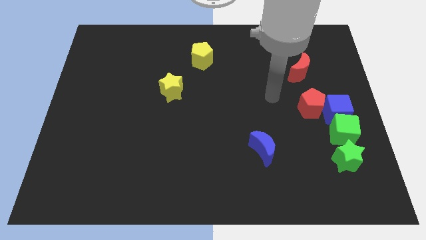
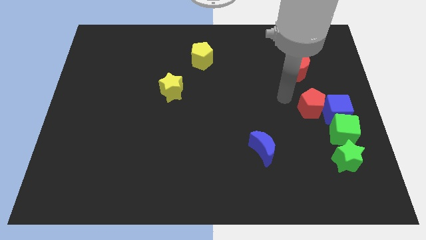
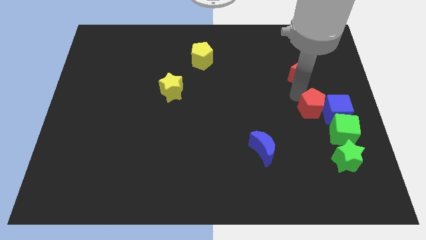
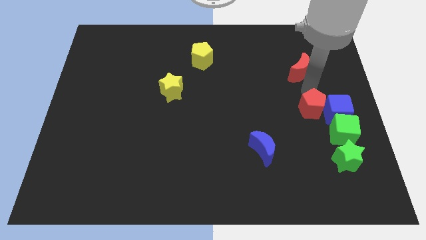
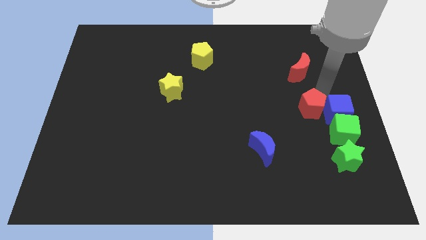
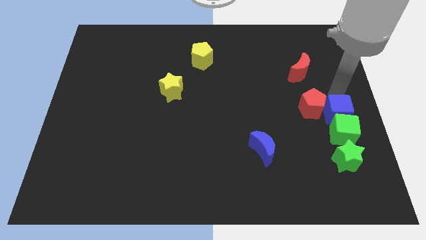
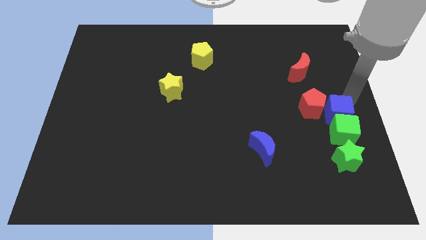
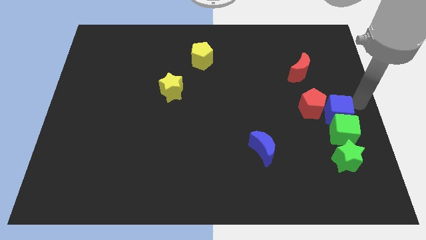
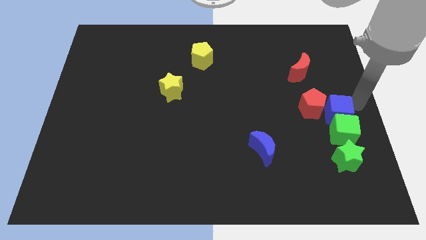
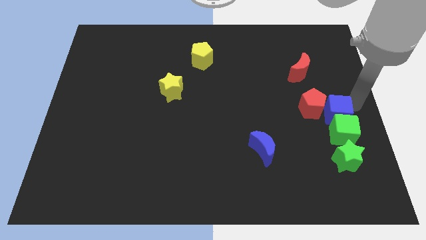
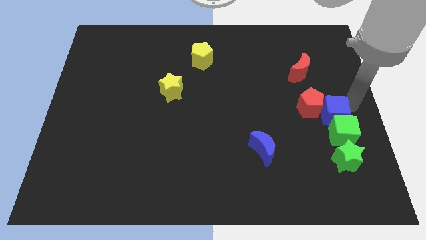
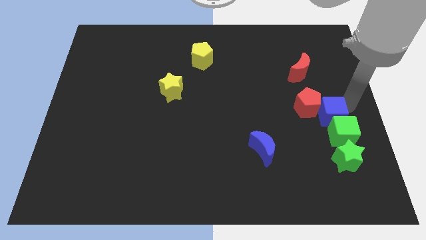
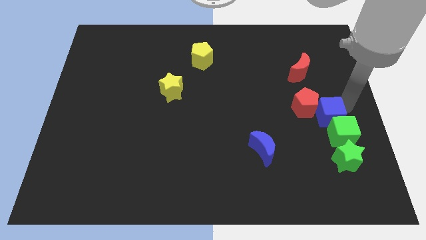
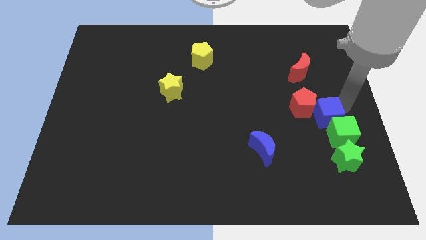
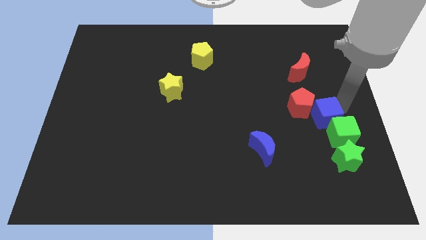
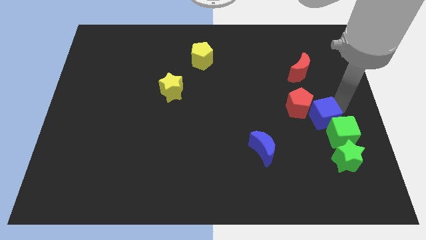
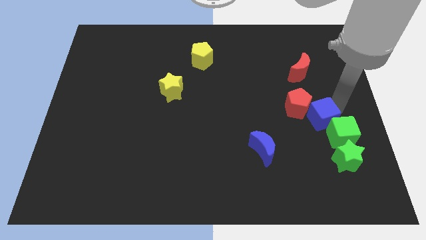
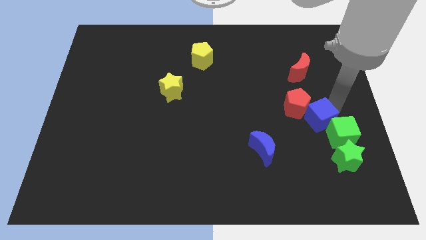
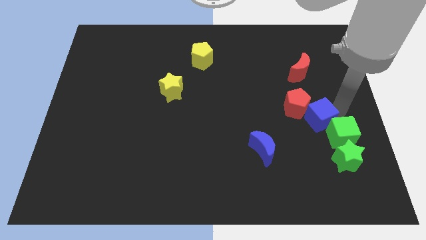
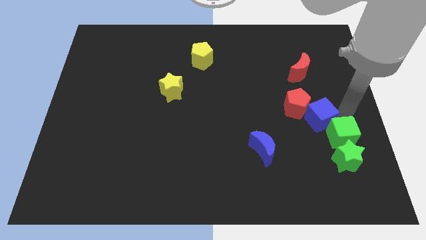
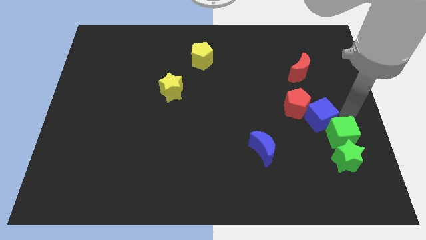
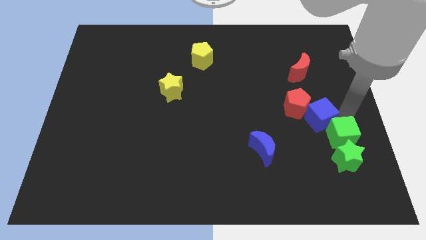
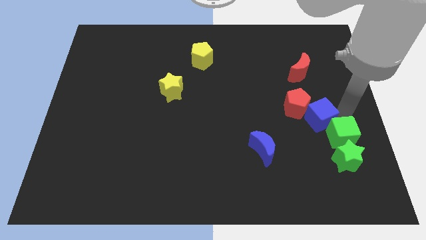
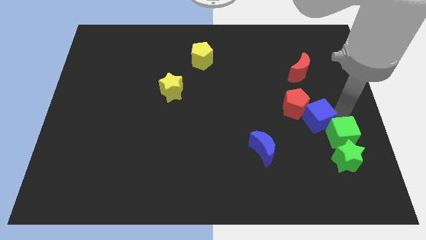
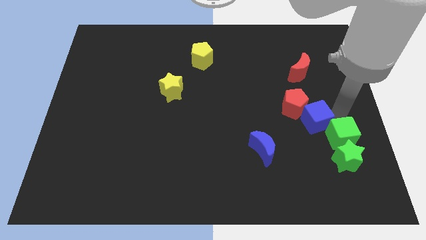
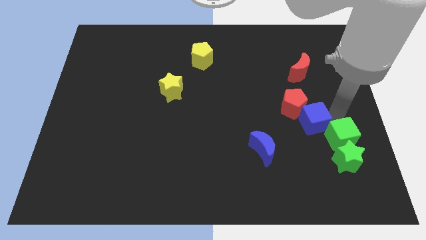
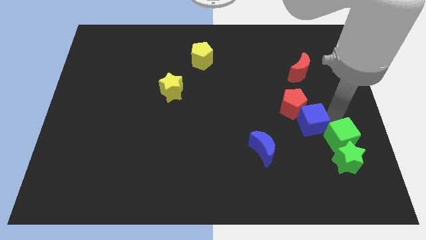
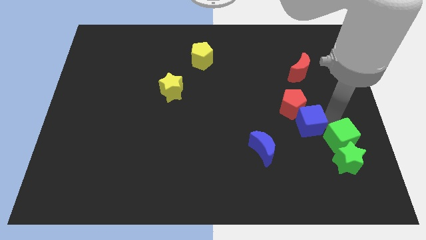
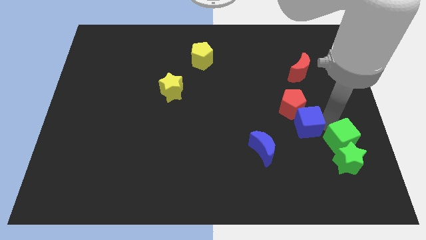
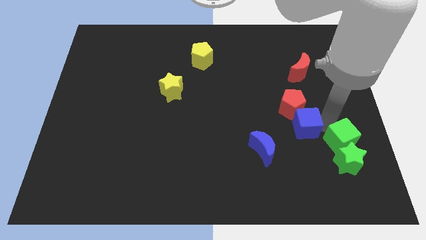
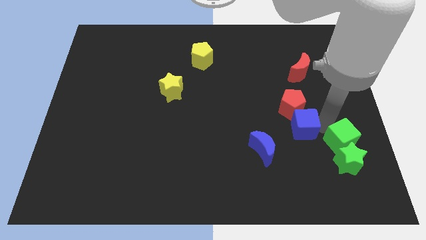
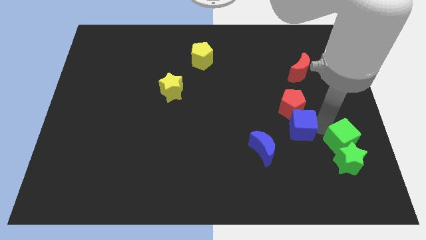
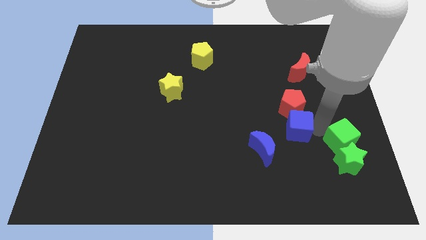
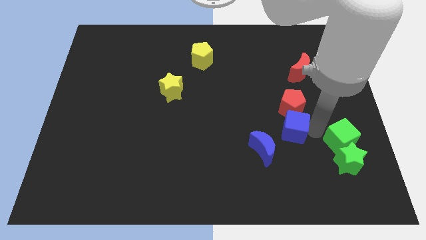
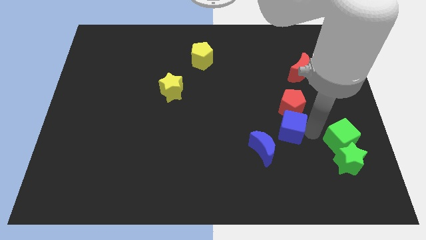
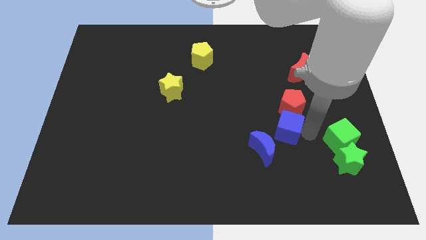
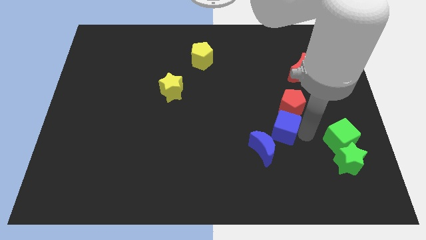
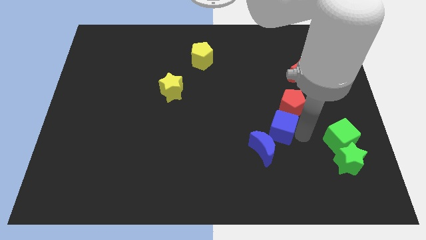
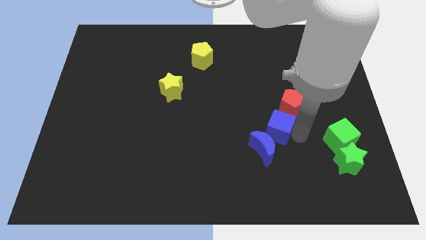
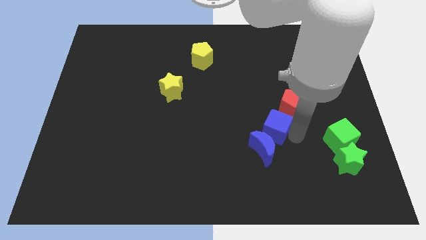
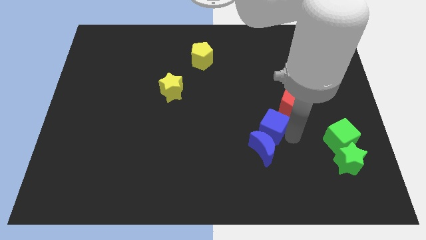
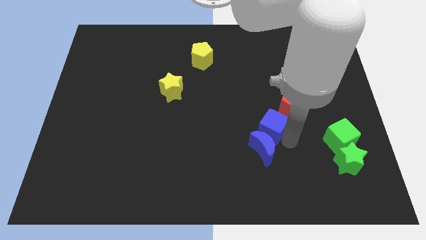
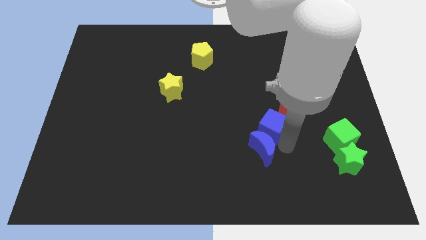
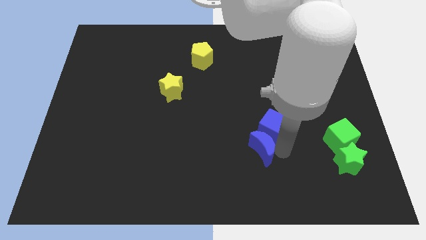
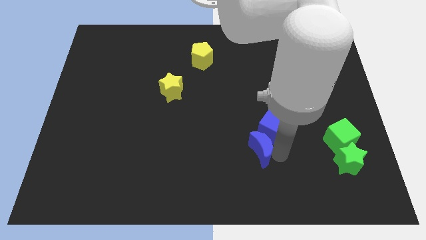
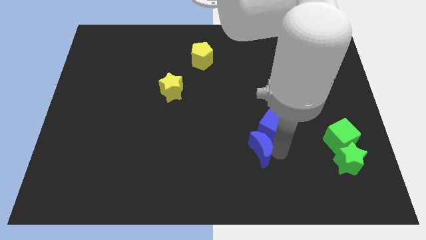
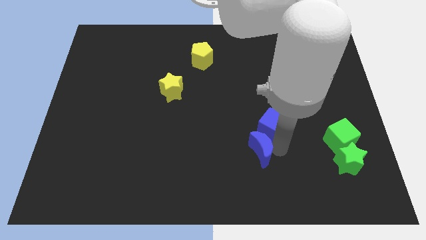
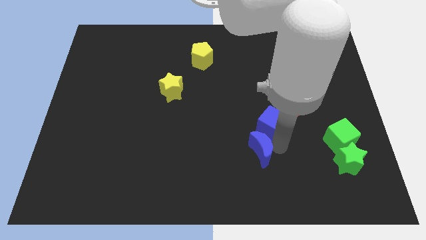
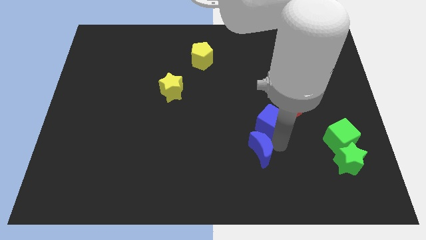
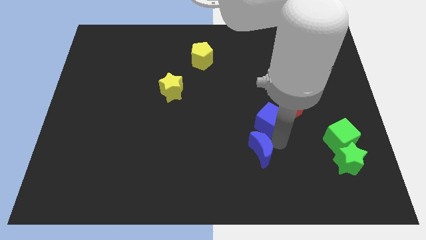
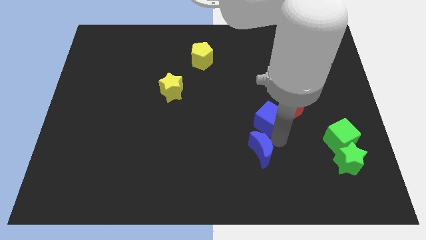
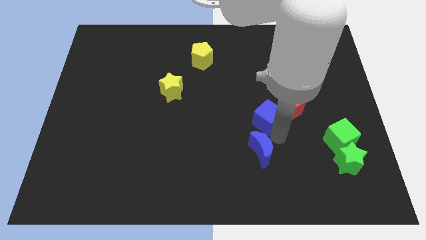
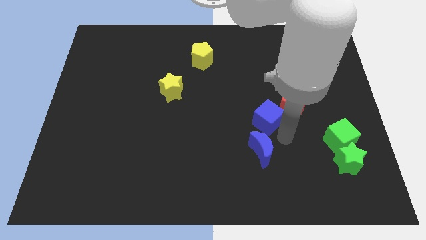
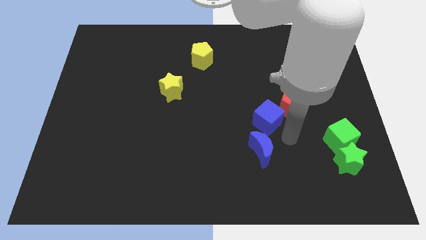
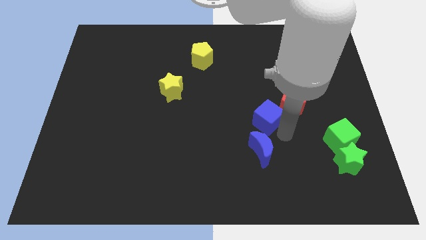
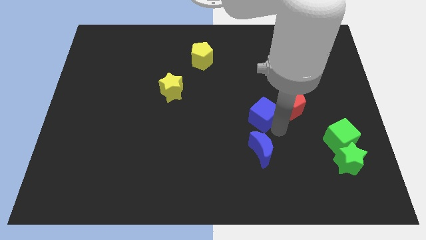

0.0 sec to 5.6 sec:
slide the blue cube to the middle of the board

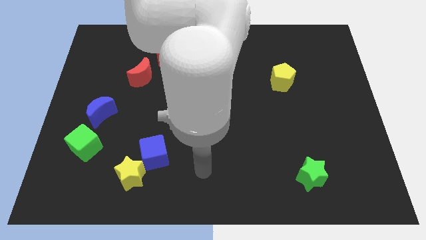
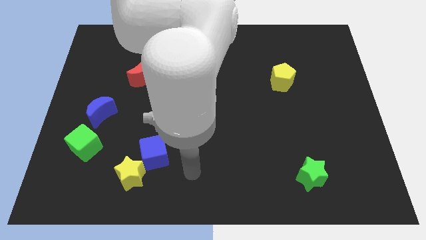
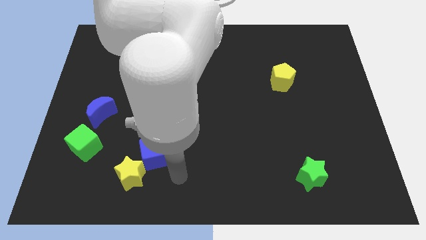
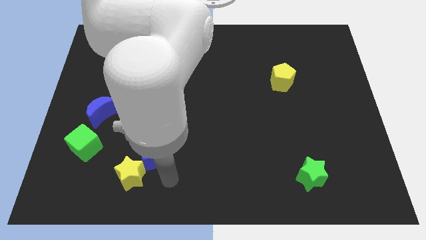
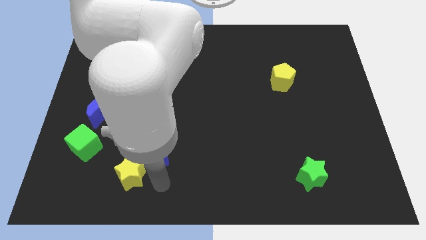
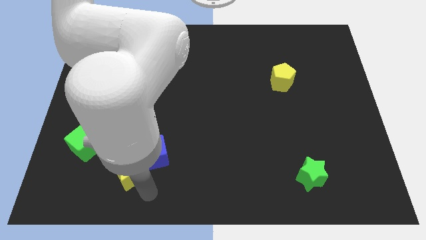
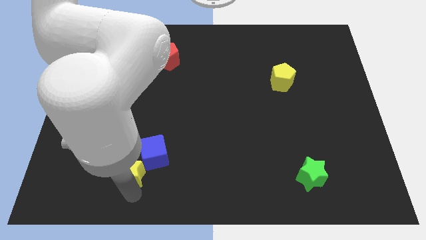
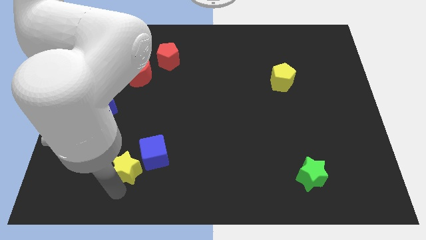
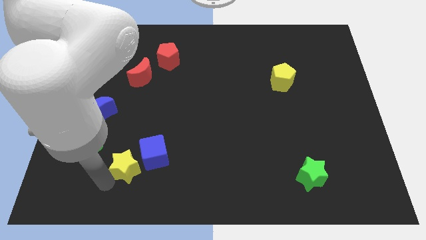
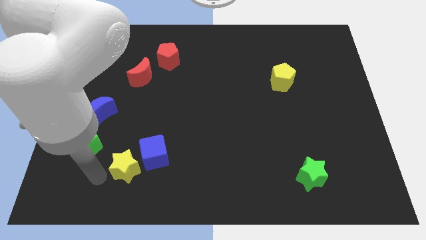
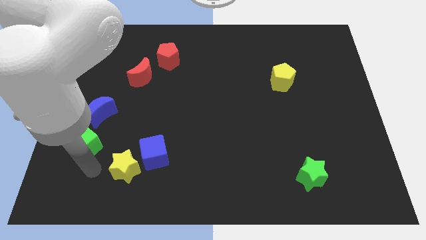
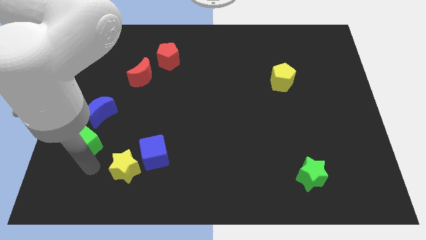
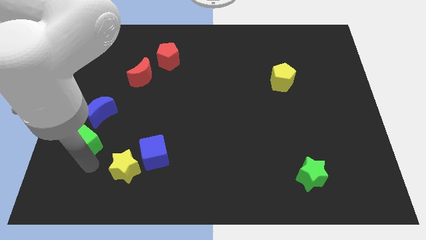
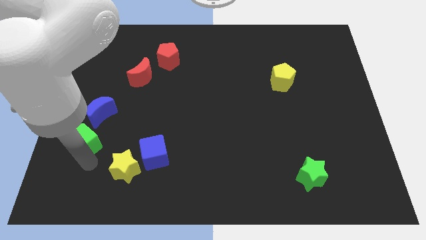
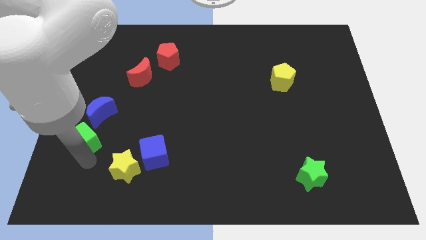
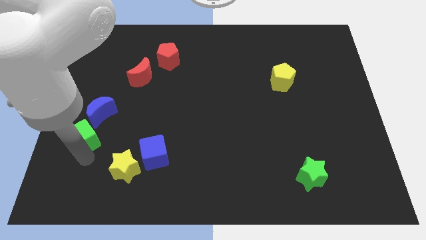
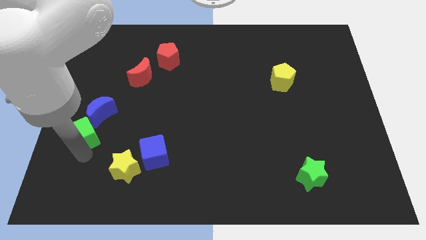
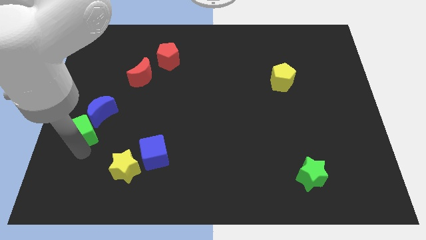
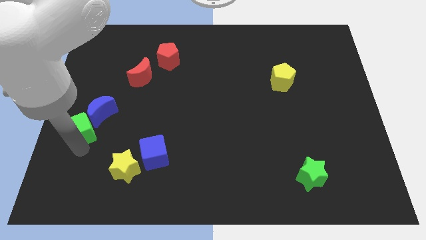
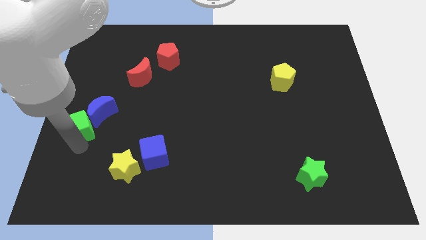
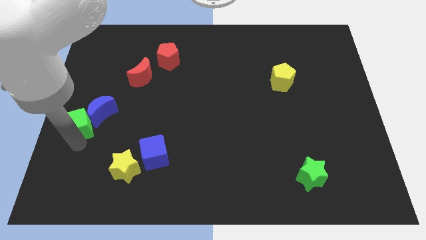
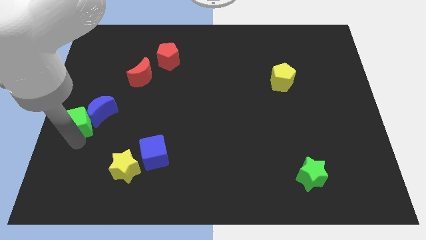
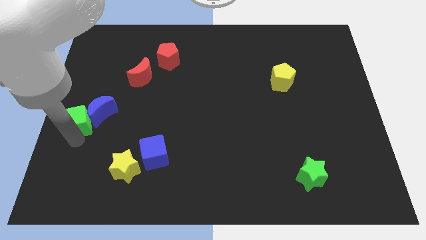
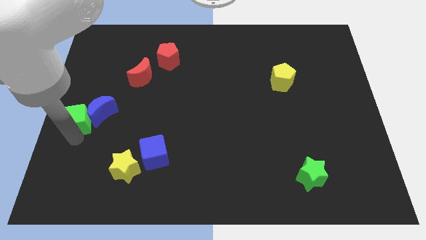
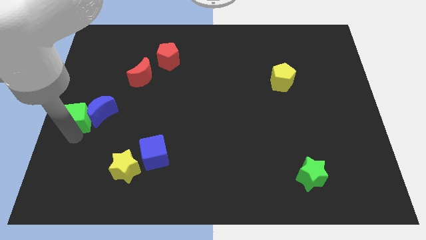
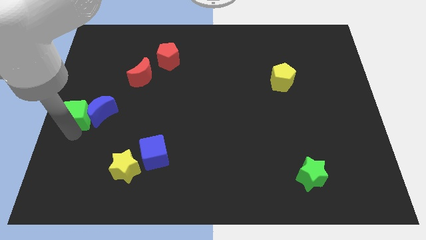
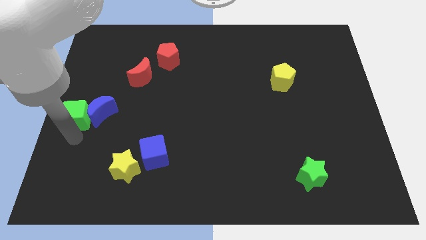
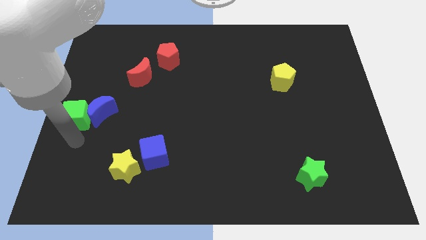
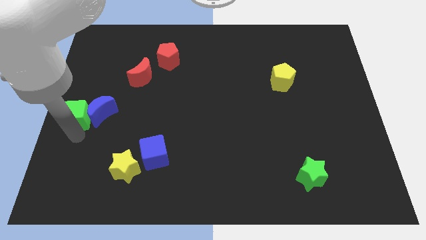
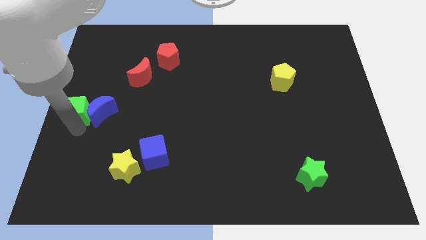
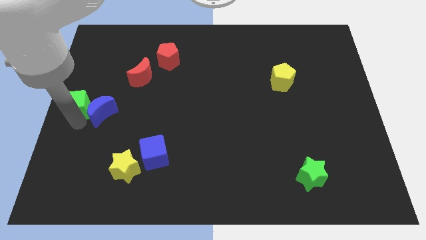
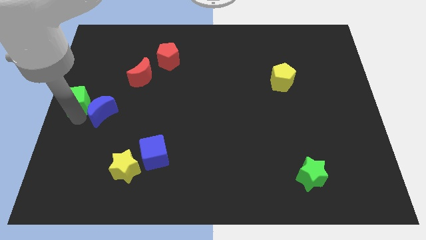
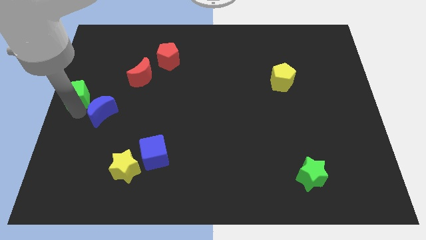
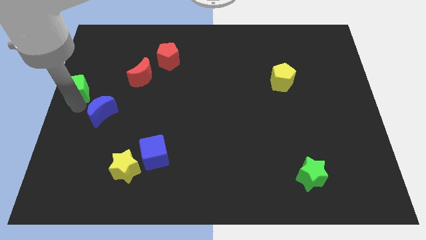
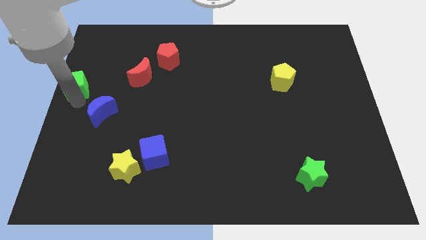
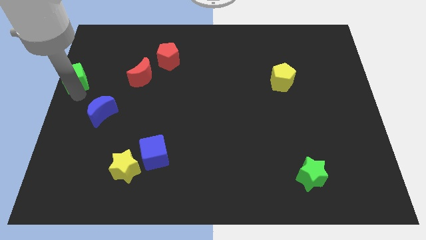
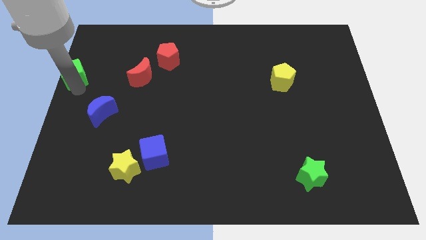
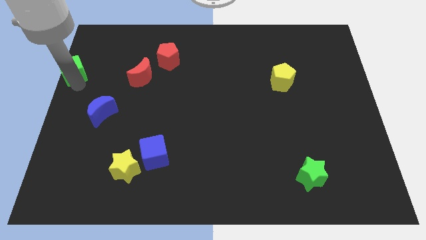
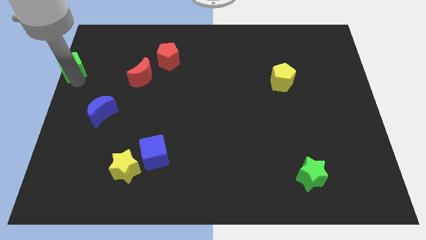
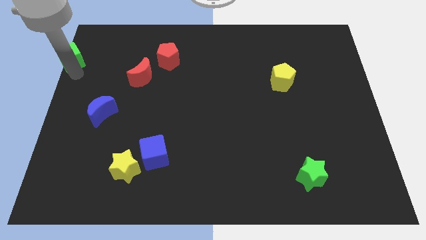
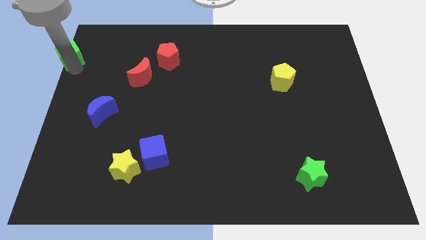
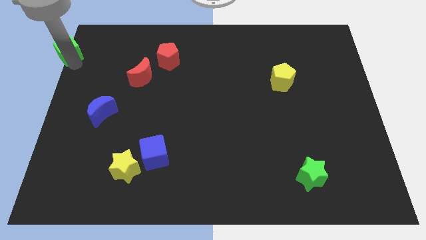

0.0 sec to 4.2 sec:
slide the green cube to the top left
